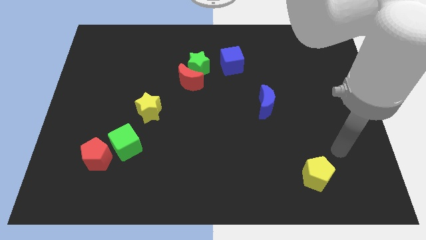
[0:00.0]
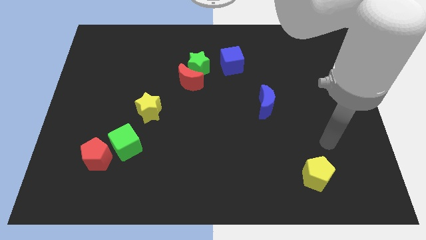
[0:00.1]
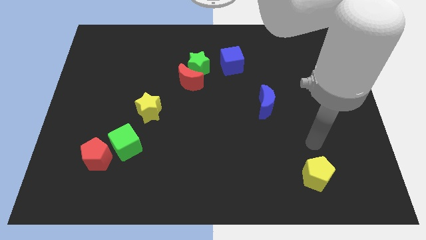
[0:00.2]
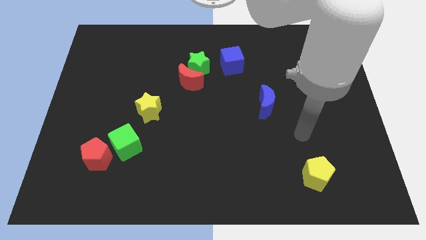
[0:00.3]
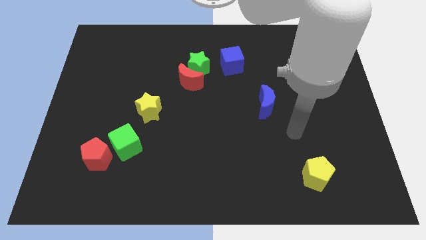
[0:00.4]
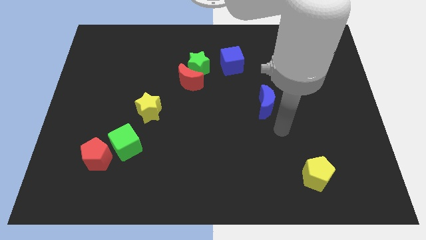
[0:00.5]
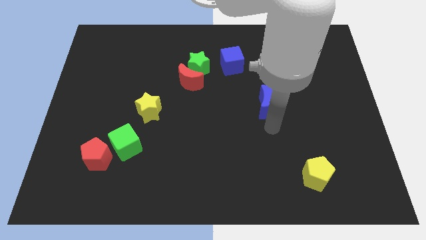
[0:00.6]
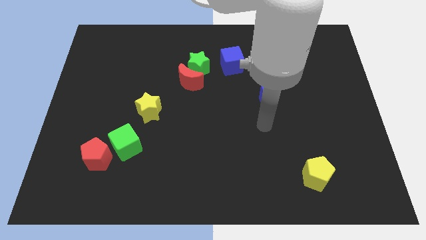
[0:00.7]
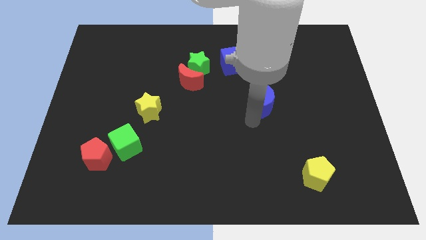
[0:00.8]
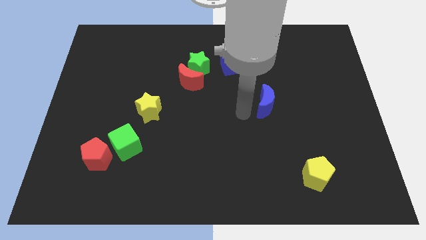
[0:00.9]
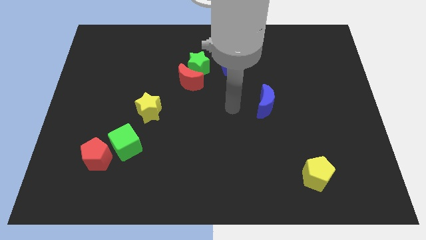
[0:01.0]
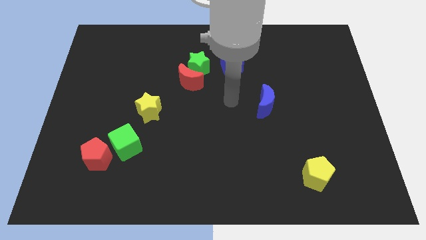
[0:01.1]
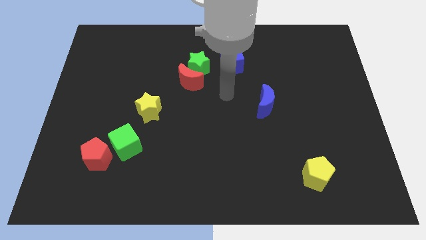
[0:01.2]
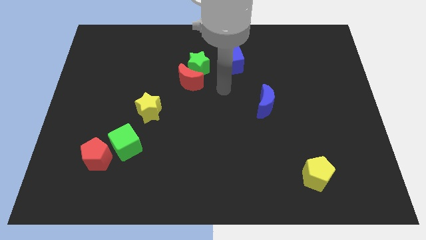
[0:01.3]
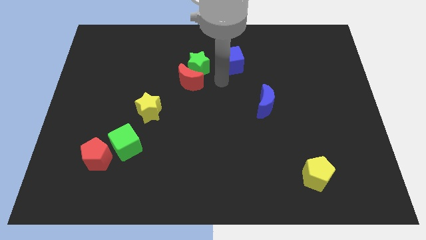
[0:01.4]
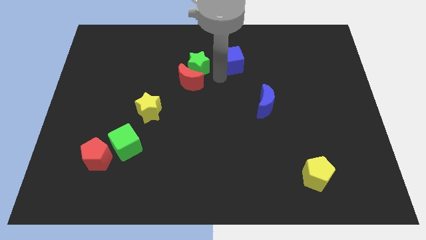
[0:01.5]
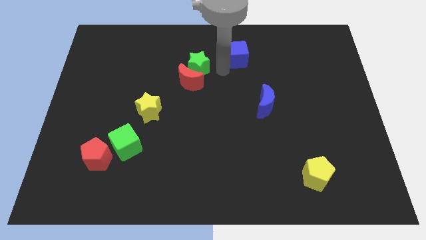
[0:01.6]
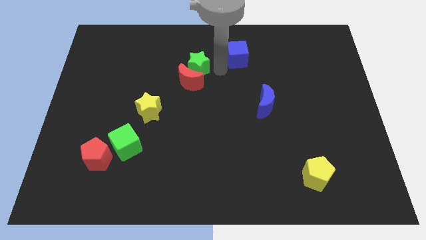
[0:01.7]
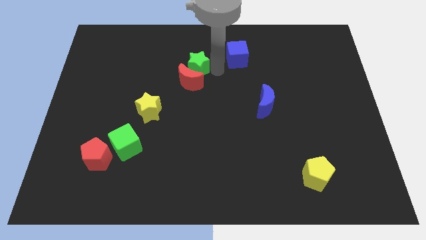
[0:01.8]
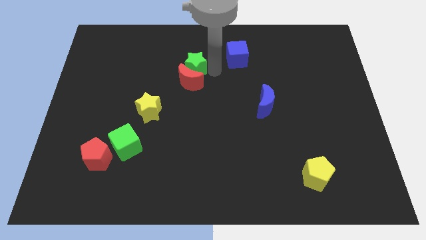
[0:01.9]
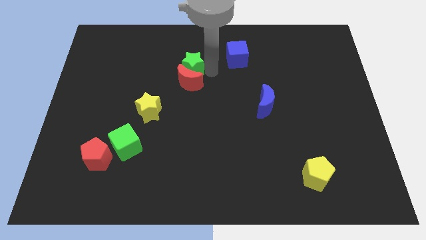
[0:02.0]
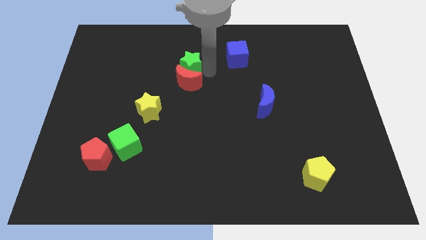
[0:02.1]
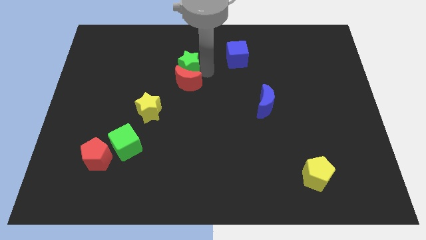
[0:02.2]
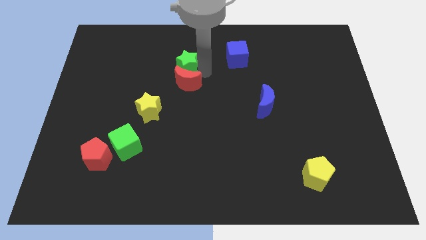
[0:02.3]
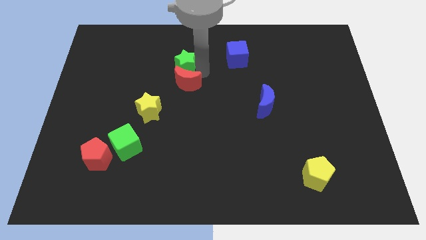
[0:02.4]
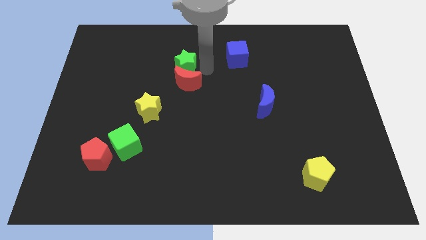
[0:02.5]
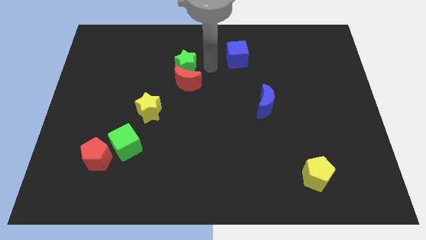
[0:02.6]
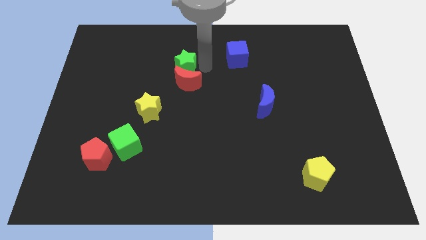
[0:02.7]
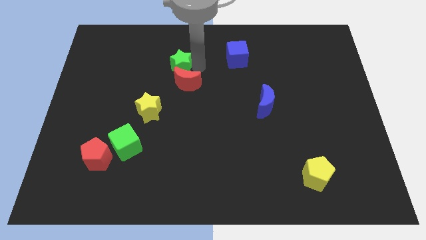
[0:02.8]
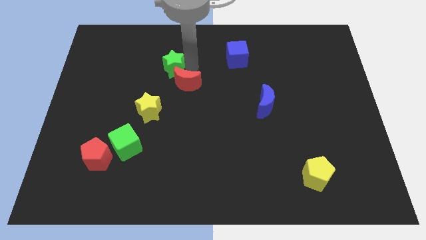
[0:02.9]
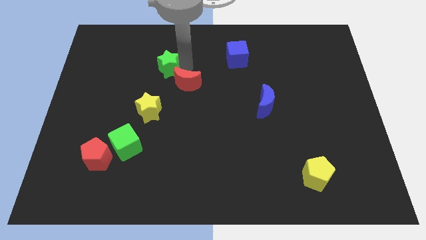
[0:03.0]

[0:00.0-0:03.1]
slightly move the green star to the left

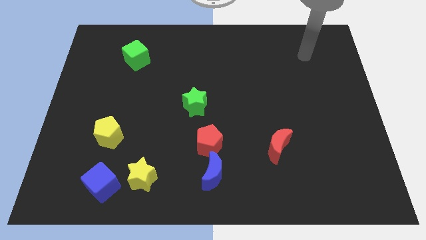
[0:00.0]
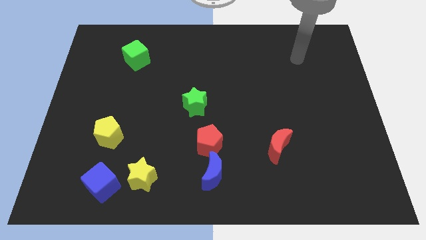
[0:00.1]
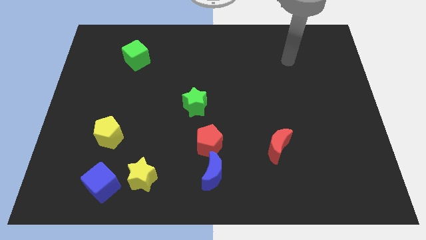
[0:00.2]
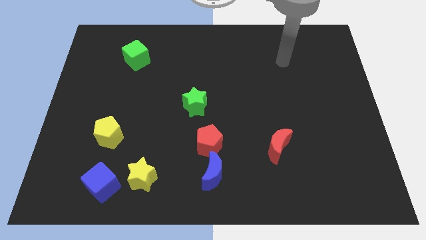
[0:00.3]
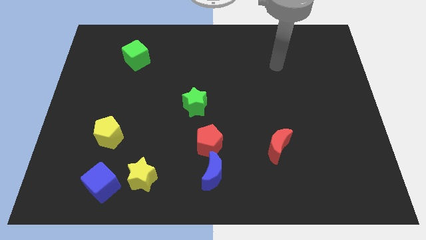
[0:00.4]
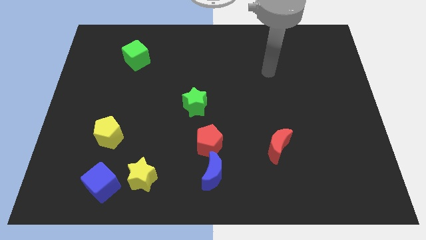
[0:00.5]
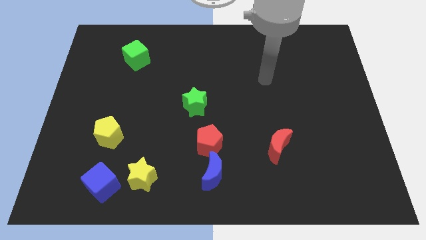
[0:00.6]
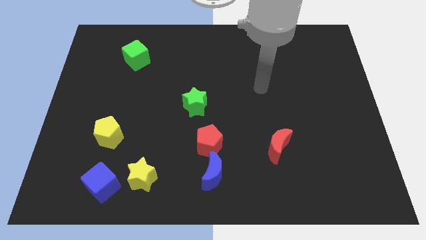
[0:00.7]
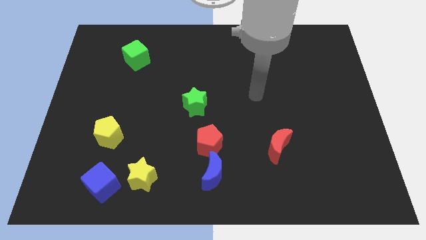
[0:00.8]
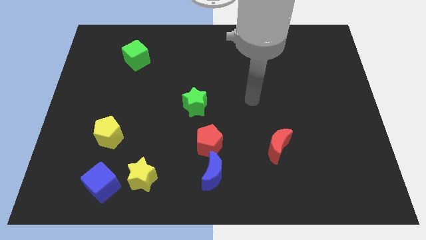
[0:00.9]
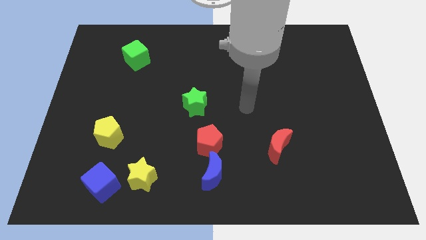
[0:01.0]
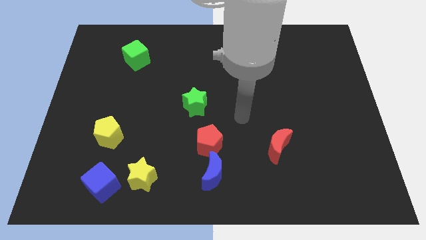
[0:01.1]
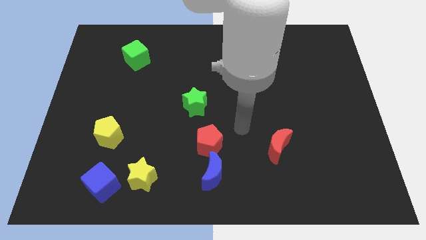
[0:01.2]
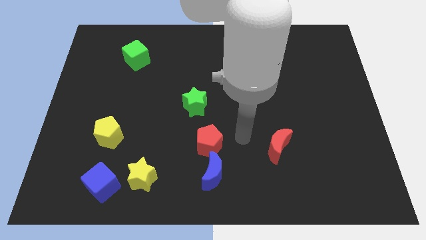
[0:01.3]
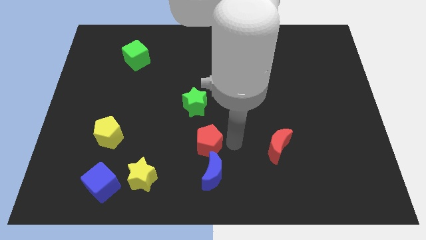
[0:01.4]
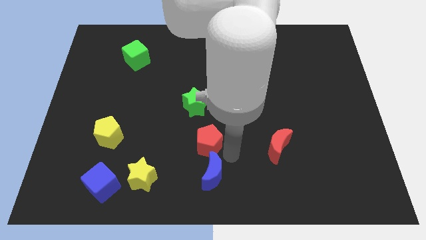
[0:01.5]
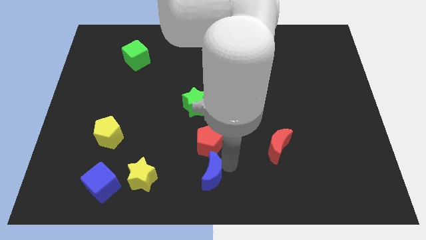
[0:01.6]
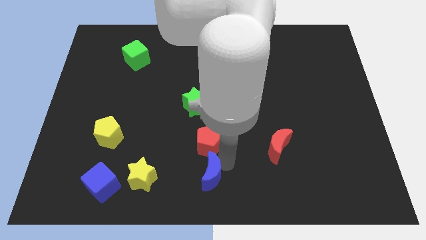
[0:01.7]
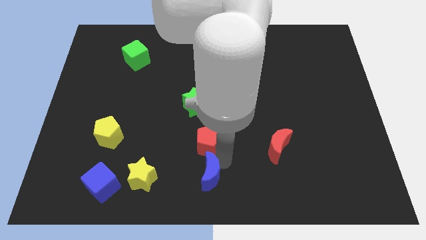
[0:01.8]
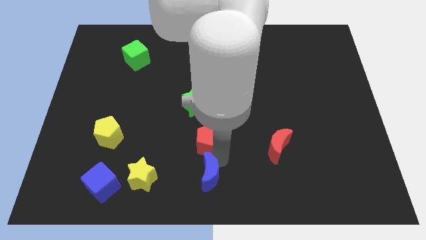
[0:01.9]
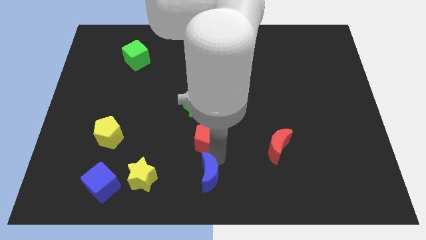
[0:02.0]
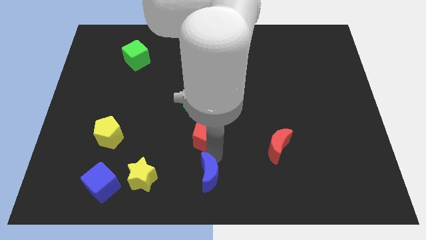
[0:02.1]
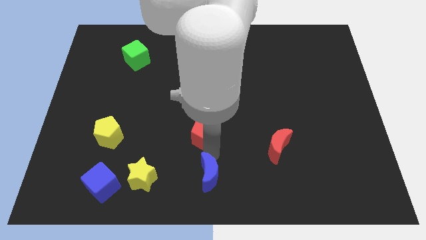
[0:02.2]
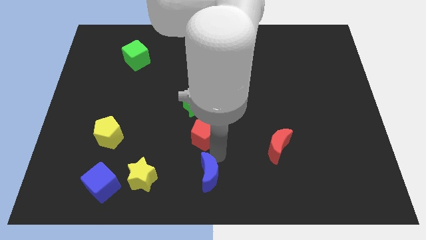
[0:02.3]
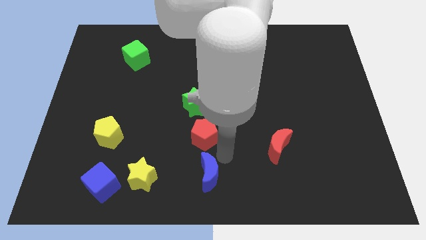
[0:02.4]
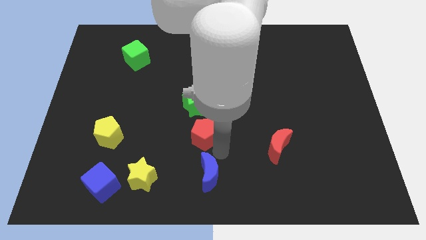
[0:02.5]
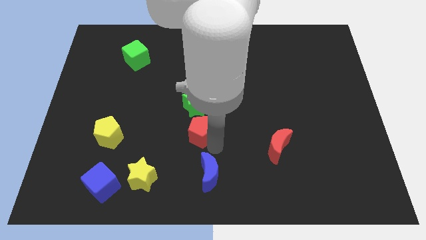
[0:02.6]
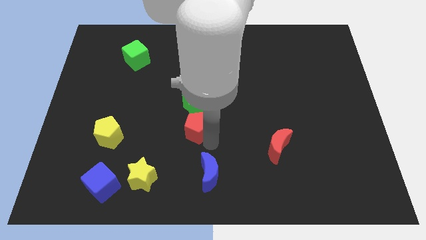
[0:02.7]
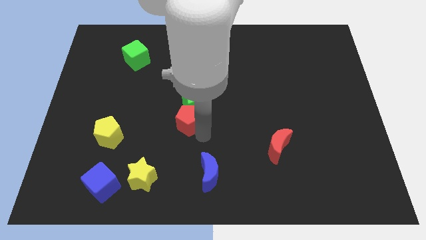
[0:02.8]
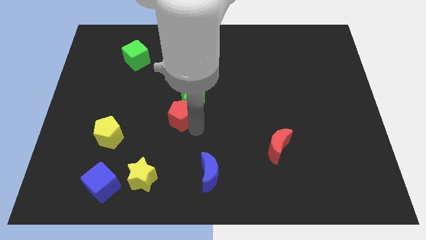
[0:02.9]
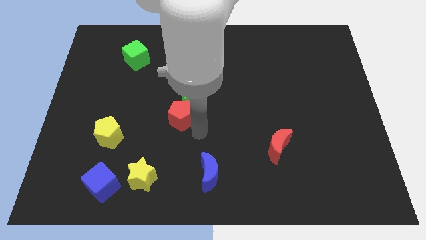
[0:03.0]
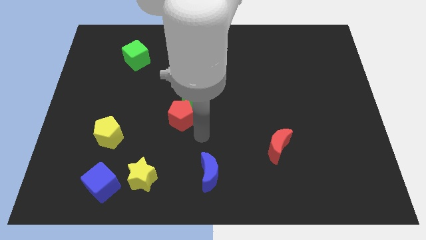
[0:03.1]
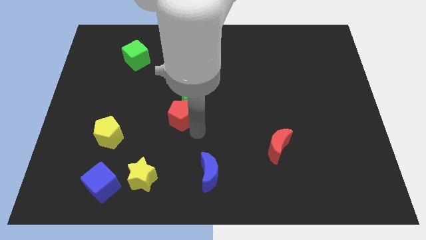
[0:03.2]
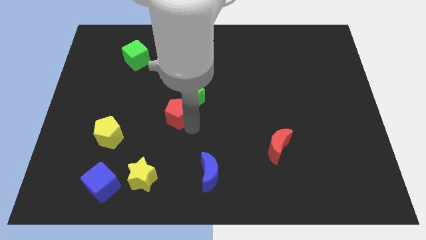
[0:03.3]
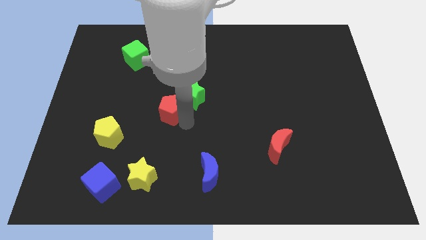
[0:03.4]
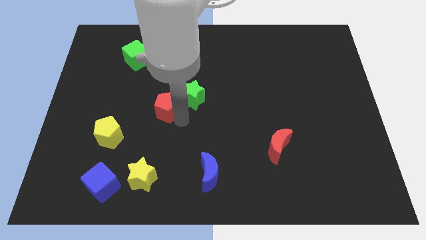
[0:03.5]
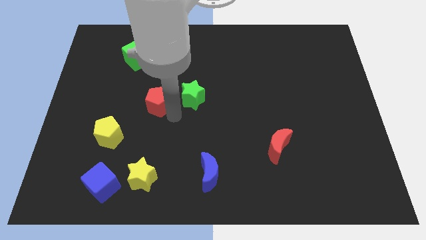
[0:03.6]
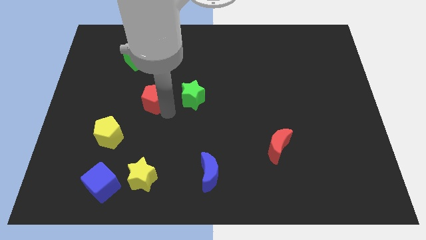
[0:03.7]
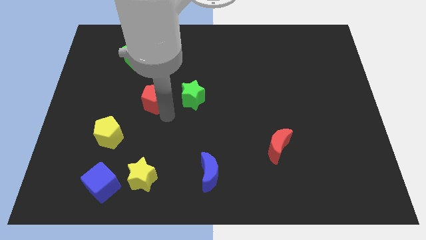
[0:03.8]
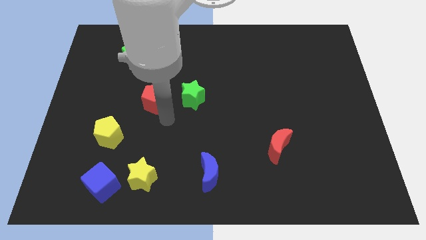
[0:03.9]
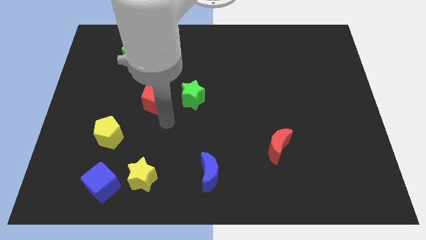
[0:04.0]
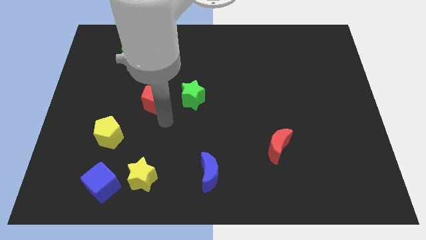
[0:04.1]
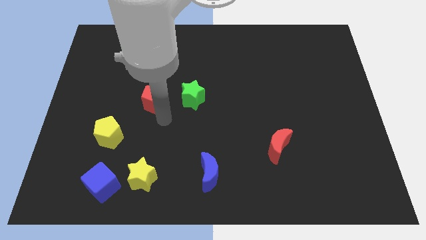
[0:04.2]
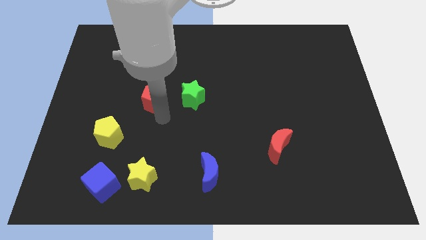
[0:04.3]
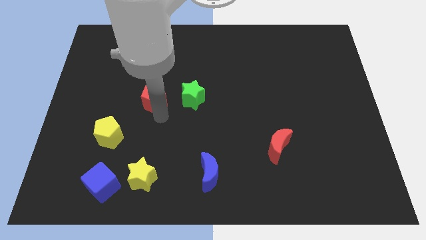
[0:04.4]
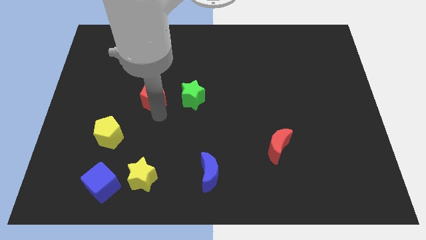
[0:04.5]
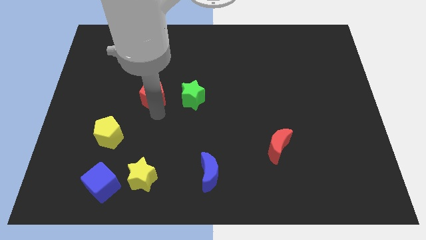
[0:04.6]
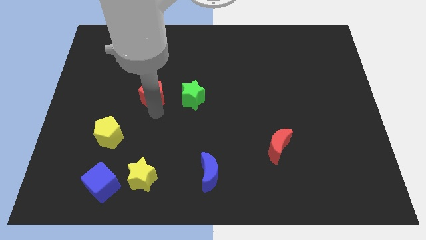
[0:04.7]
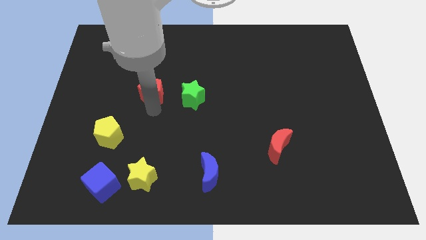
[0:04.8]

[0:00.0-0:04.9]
push the red pentagon upwards and left
